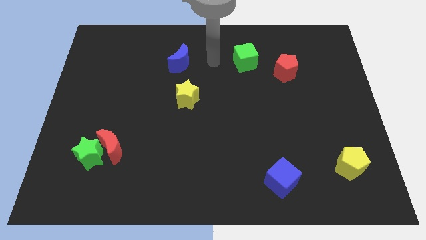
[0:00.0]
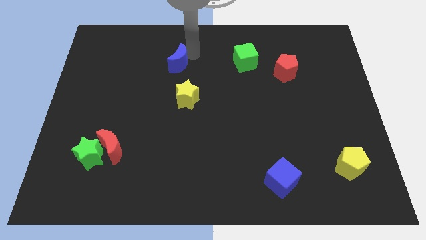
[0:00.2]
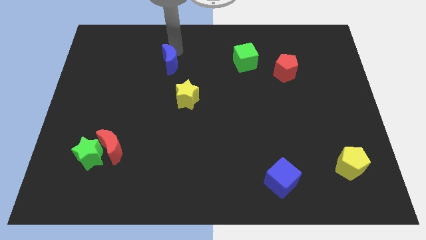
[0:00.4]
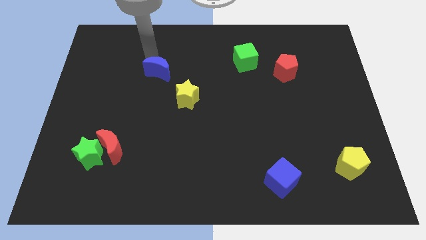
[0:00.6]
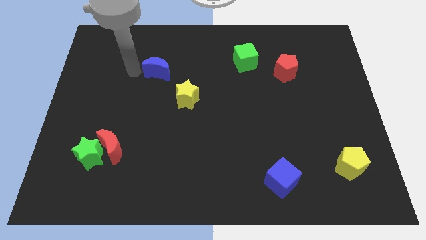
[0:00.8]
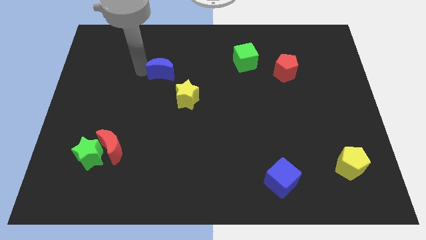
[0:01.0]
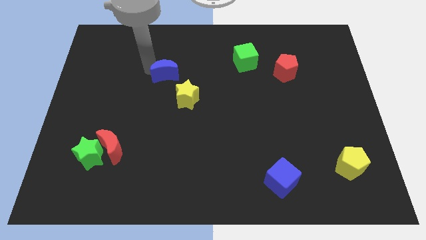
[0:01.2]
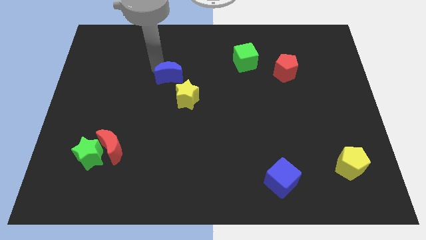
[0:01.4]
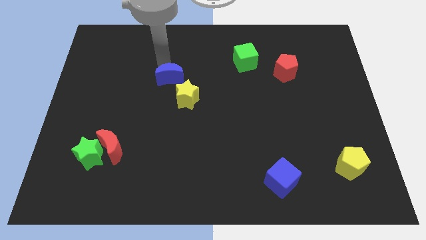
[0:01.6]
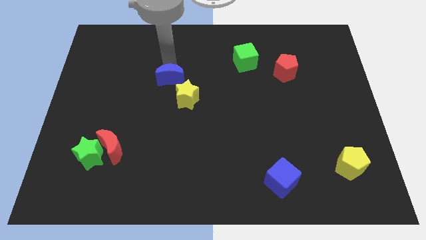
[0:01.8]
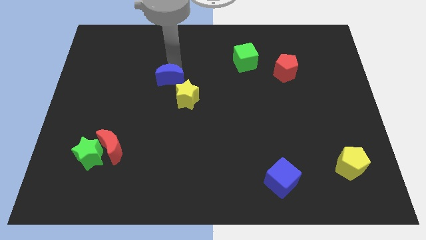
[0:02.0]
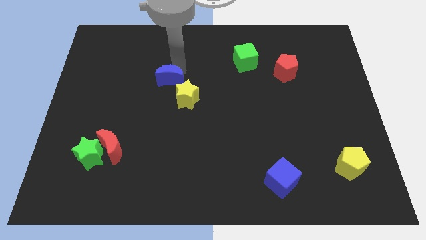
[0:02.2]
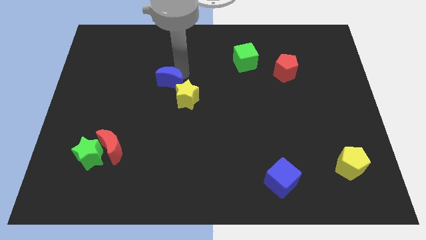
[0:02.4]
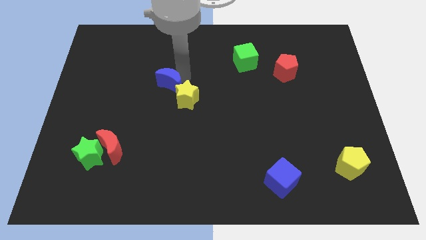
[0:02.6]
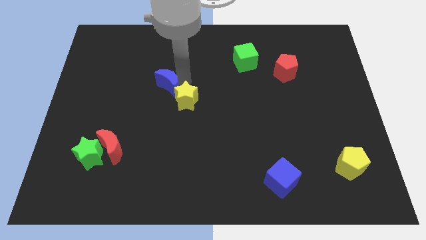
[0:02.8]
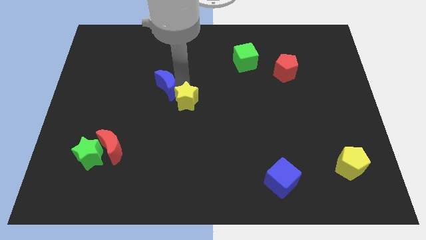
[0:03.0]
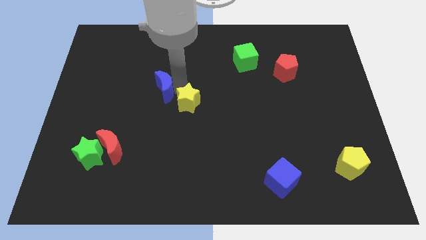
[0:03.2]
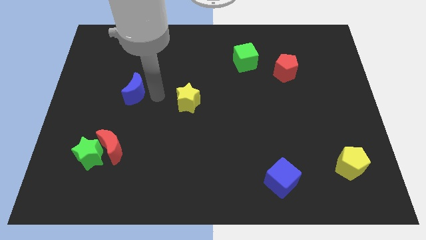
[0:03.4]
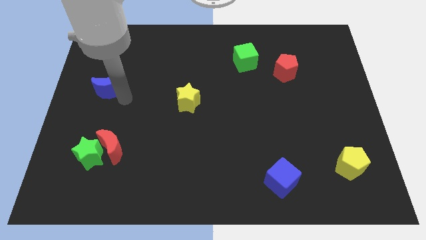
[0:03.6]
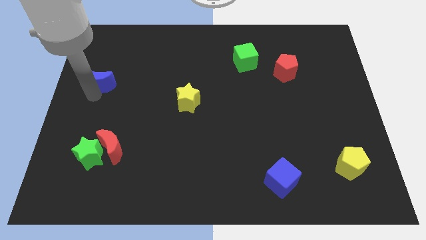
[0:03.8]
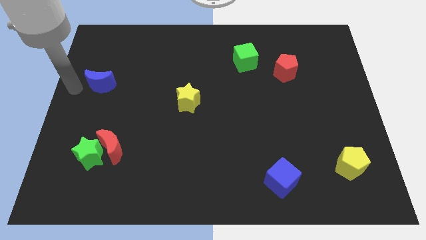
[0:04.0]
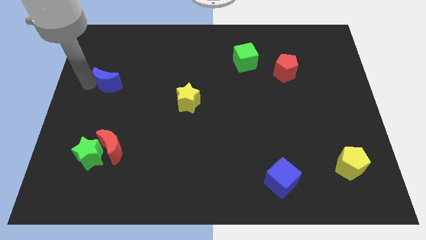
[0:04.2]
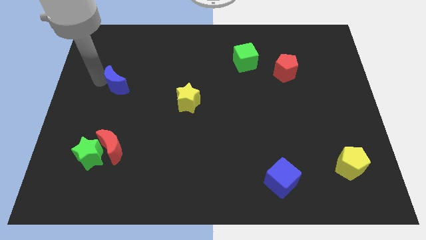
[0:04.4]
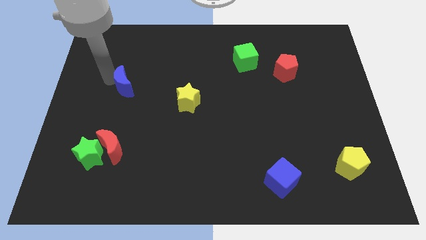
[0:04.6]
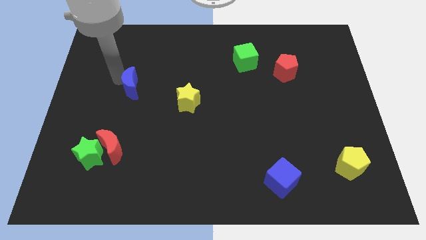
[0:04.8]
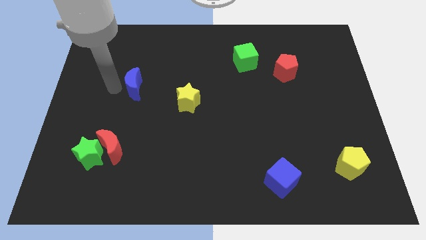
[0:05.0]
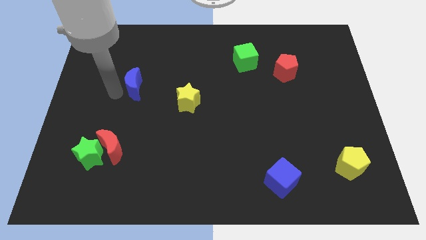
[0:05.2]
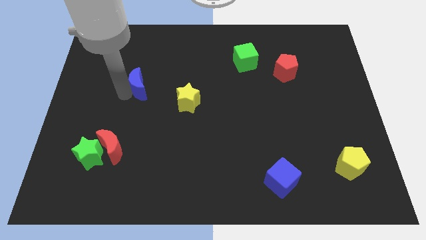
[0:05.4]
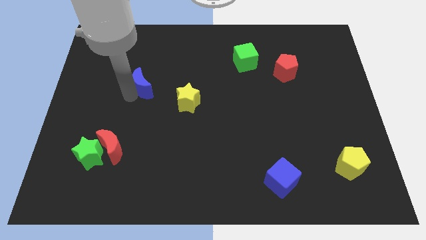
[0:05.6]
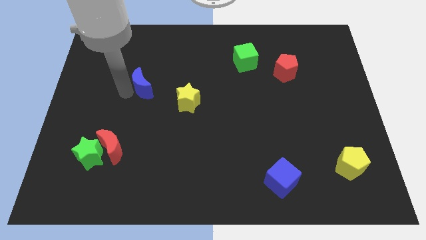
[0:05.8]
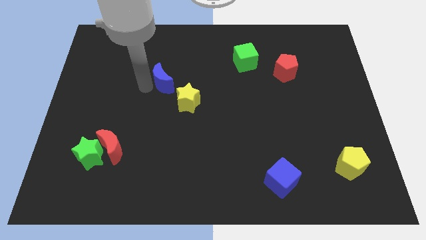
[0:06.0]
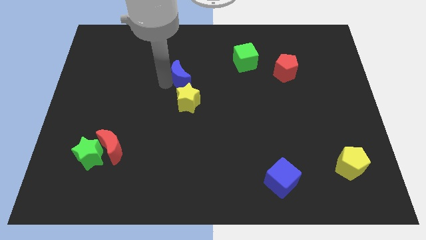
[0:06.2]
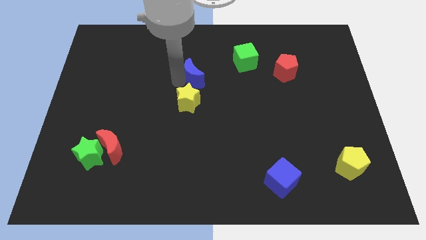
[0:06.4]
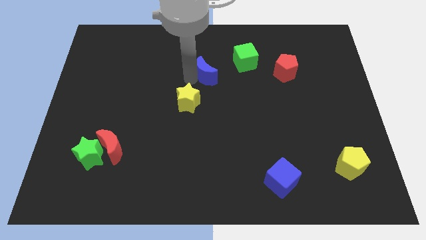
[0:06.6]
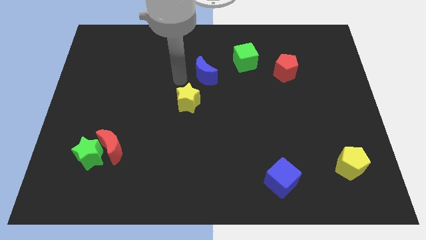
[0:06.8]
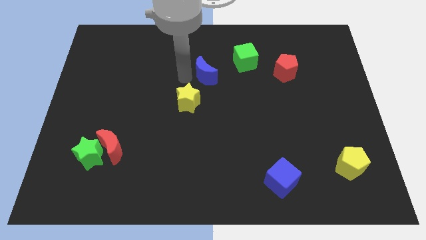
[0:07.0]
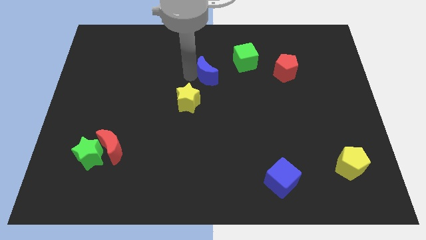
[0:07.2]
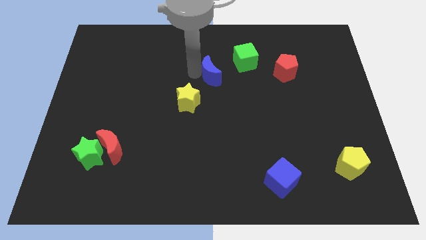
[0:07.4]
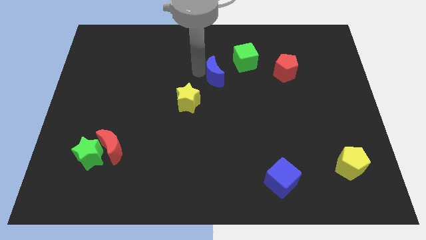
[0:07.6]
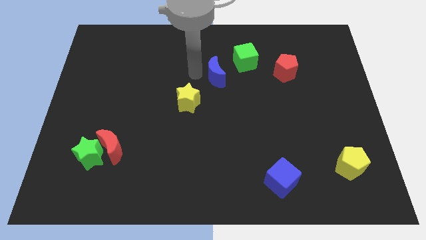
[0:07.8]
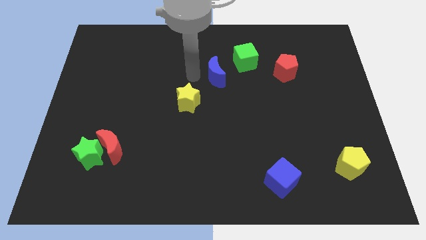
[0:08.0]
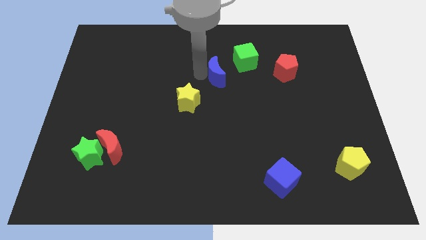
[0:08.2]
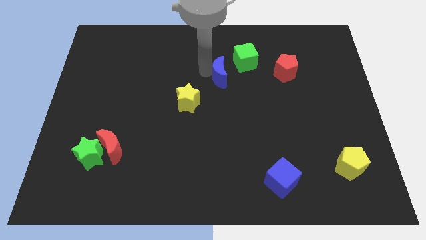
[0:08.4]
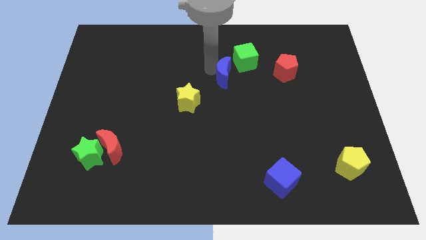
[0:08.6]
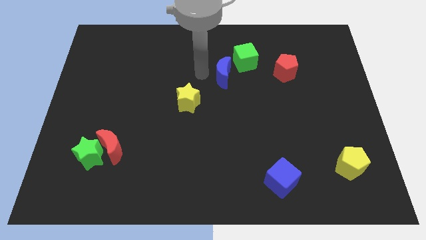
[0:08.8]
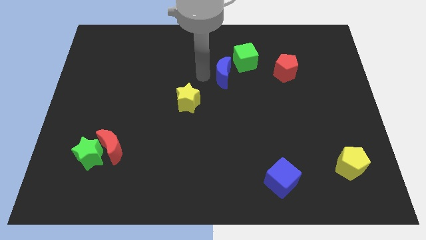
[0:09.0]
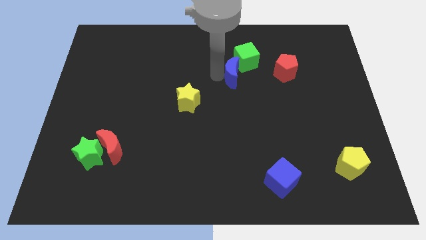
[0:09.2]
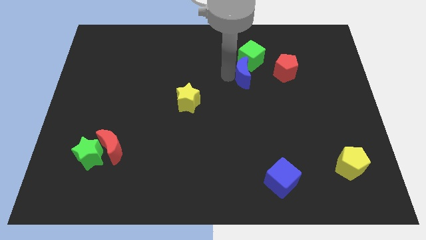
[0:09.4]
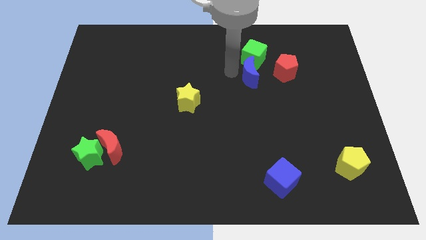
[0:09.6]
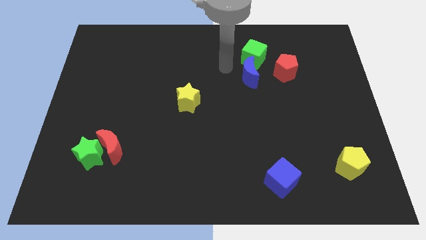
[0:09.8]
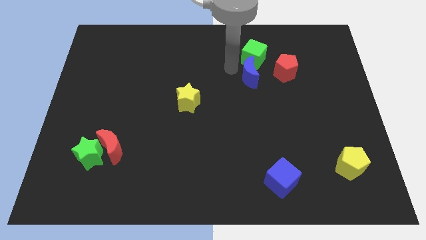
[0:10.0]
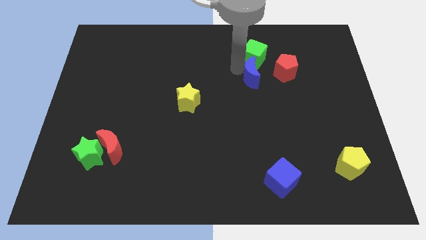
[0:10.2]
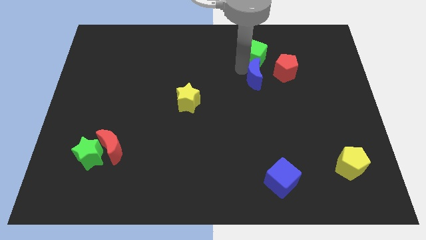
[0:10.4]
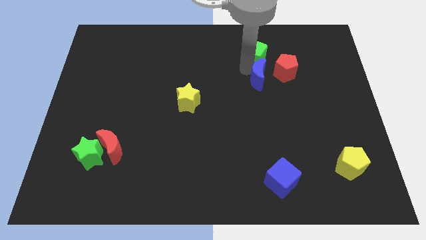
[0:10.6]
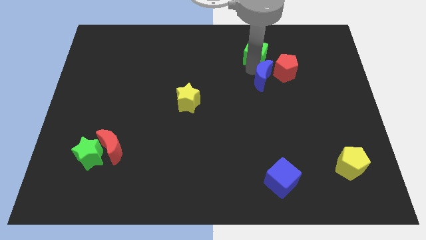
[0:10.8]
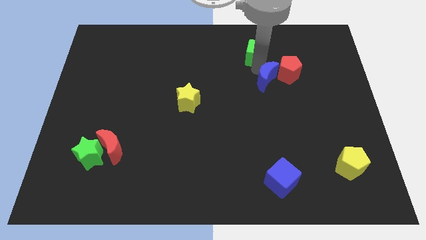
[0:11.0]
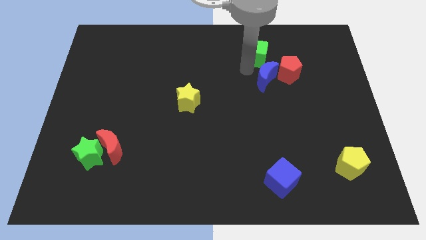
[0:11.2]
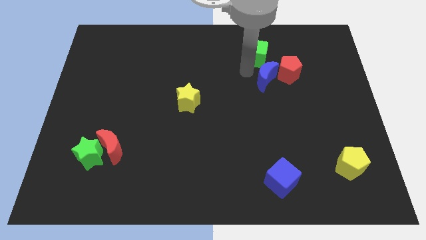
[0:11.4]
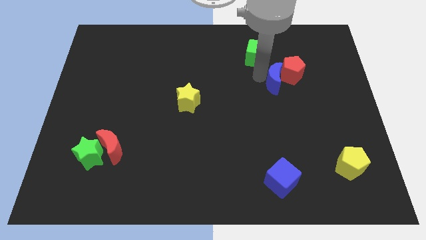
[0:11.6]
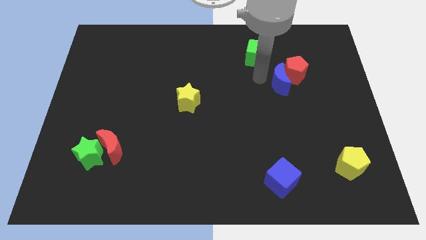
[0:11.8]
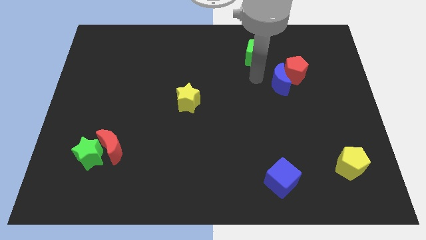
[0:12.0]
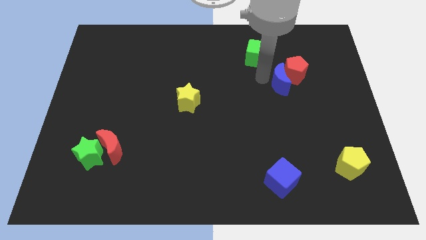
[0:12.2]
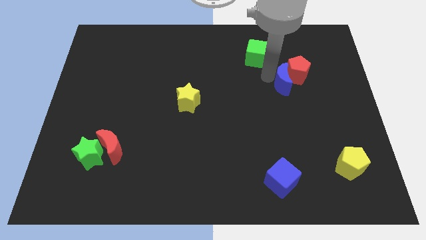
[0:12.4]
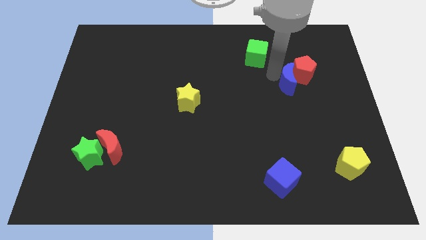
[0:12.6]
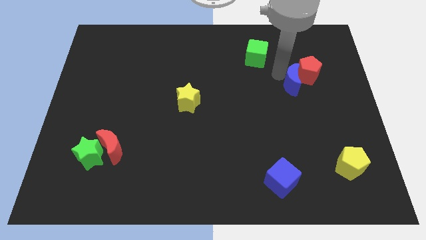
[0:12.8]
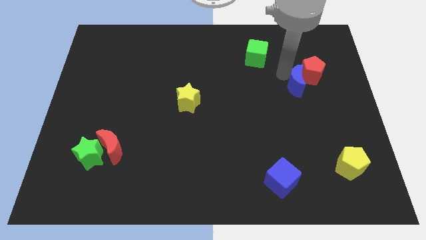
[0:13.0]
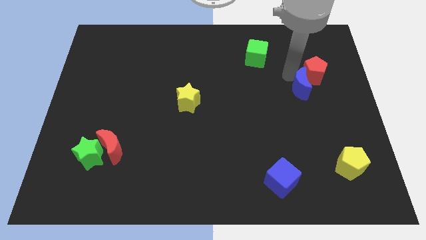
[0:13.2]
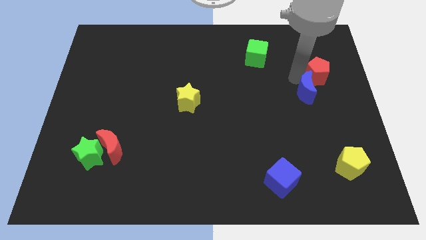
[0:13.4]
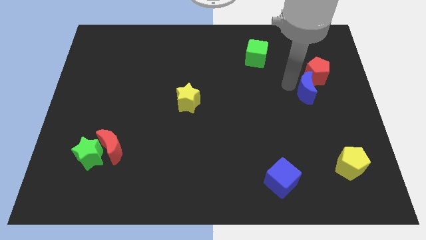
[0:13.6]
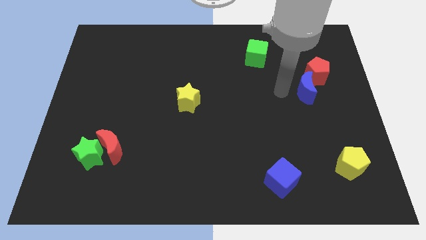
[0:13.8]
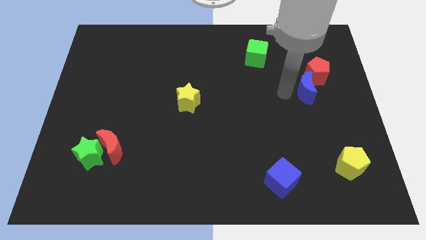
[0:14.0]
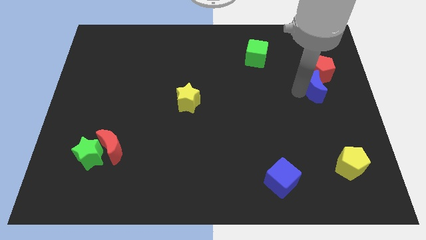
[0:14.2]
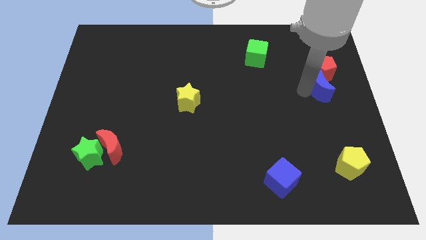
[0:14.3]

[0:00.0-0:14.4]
push the blue moon to the right side of the board

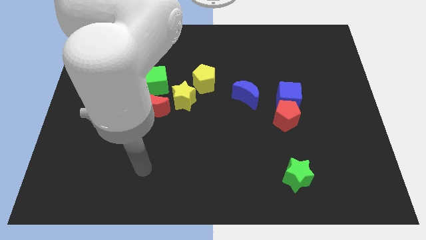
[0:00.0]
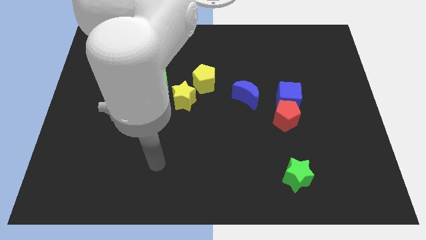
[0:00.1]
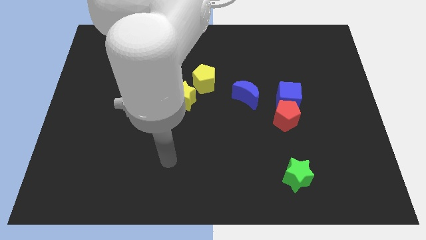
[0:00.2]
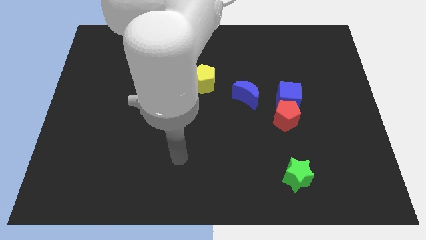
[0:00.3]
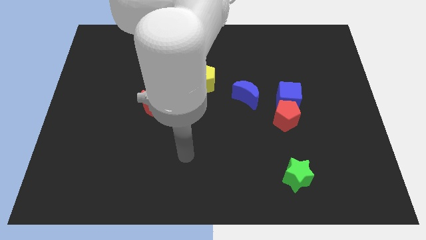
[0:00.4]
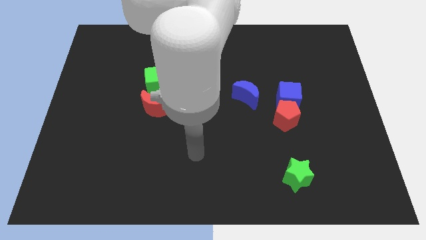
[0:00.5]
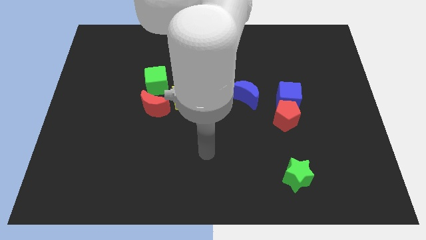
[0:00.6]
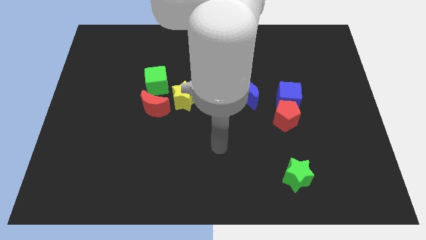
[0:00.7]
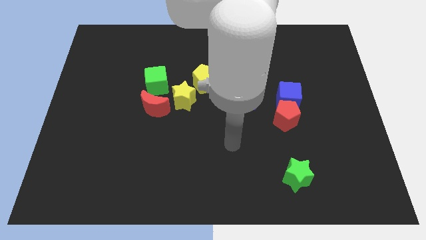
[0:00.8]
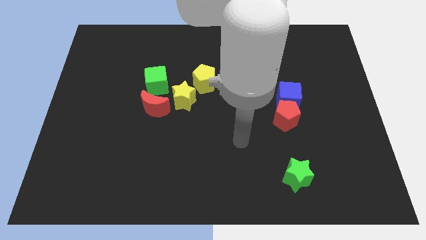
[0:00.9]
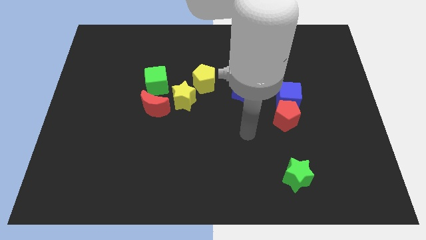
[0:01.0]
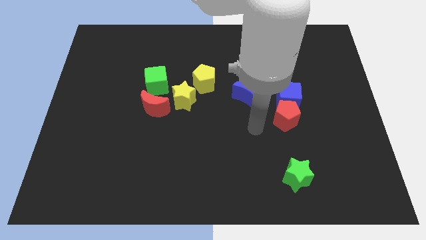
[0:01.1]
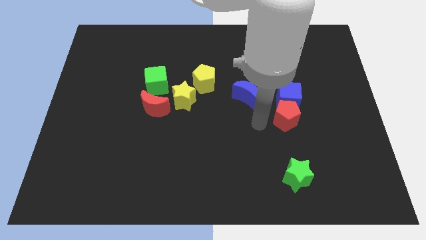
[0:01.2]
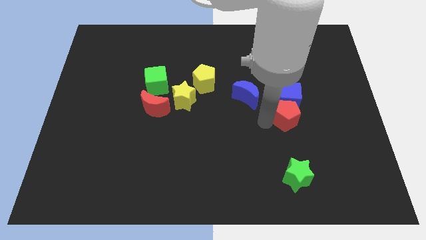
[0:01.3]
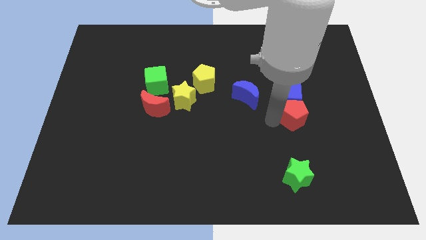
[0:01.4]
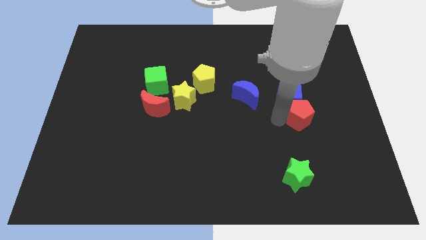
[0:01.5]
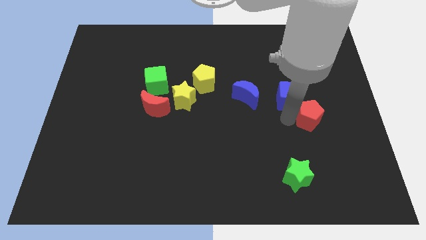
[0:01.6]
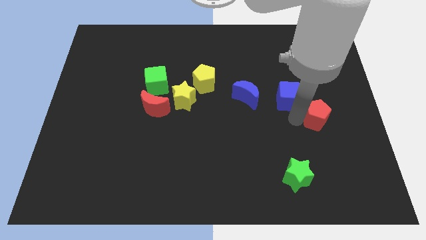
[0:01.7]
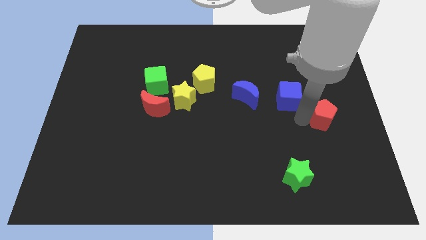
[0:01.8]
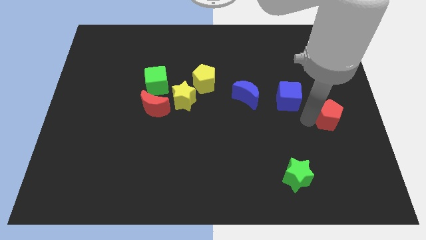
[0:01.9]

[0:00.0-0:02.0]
put the red pentagon to the right side
